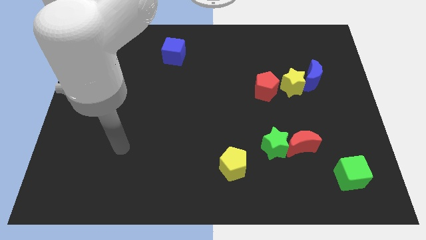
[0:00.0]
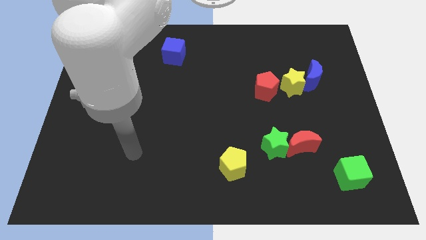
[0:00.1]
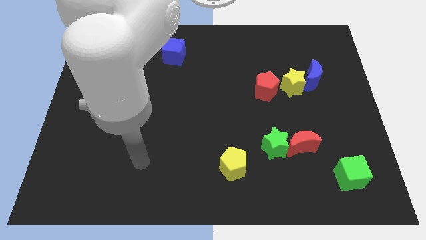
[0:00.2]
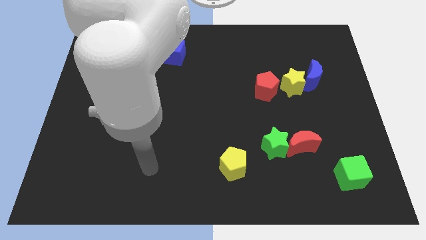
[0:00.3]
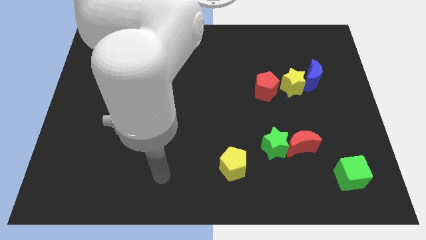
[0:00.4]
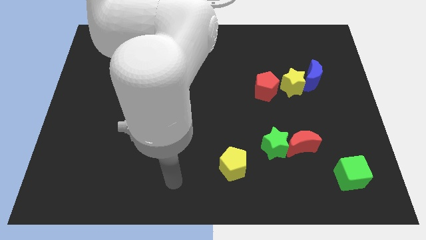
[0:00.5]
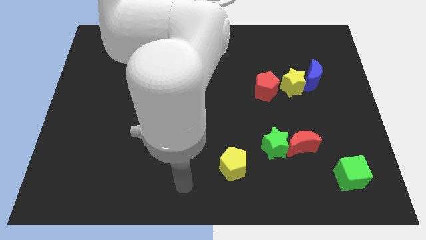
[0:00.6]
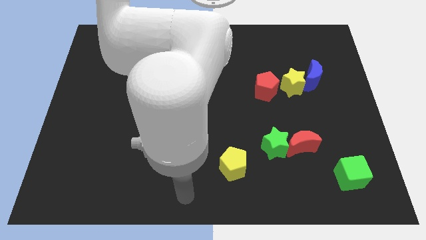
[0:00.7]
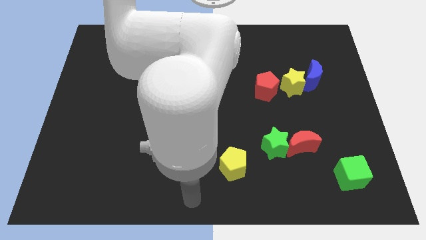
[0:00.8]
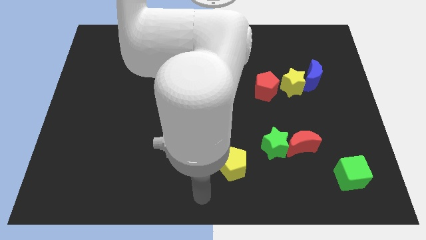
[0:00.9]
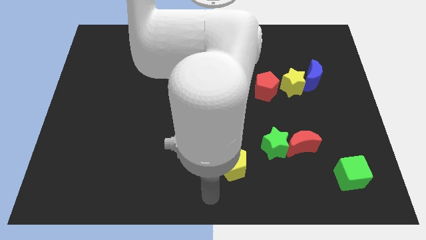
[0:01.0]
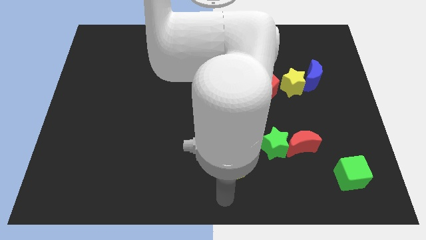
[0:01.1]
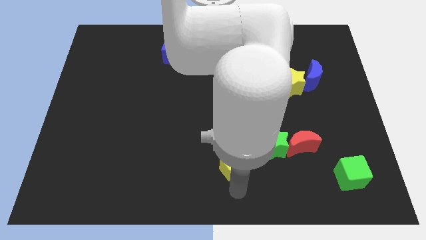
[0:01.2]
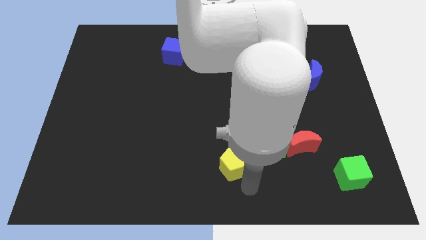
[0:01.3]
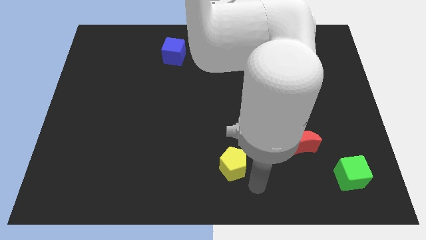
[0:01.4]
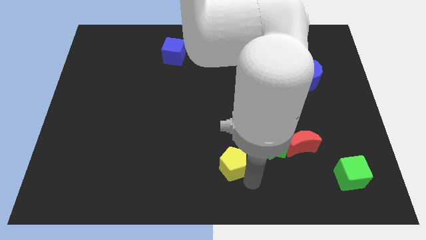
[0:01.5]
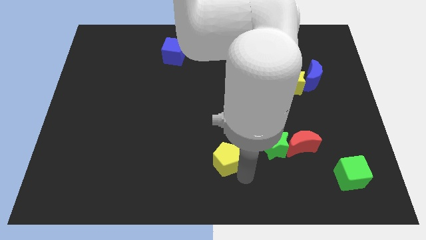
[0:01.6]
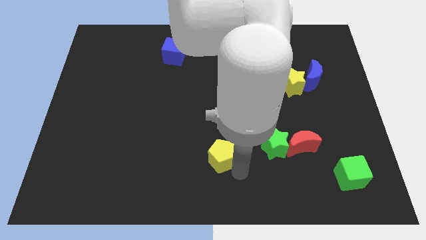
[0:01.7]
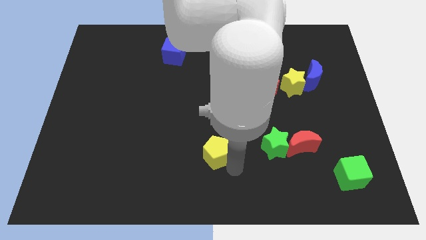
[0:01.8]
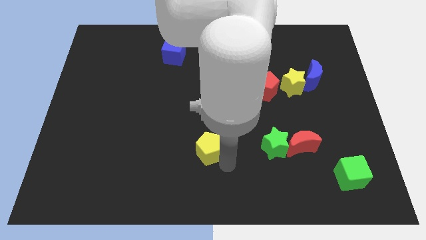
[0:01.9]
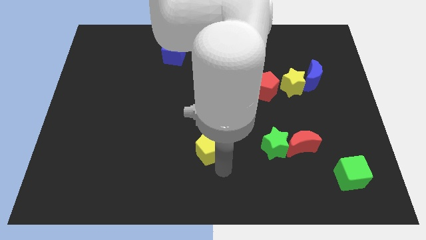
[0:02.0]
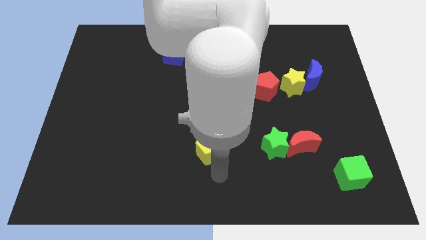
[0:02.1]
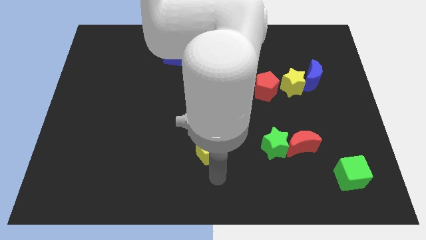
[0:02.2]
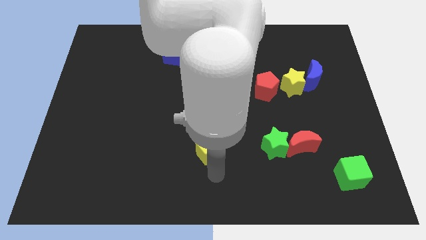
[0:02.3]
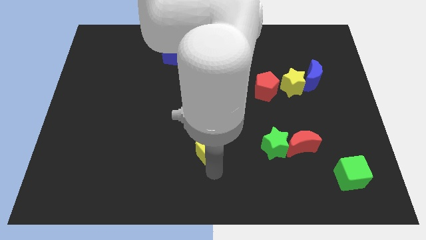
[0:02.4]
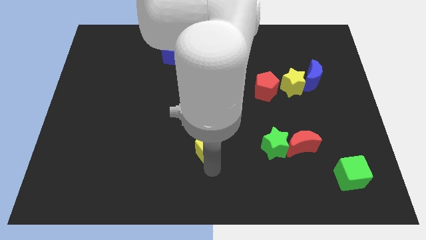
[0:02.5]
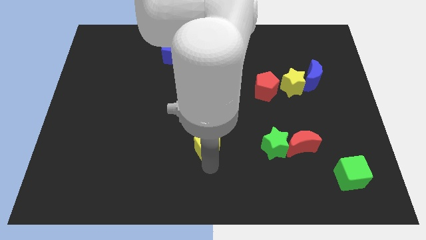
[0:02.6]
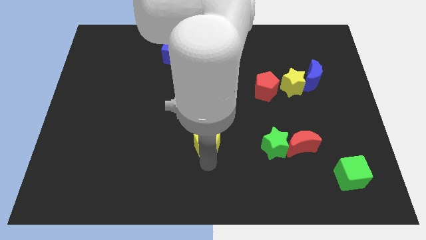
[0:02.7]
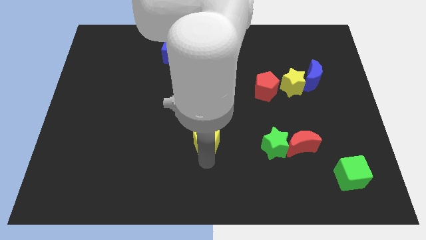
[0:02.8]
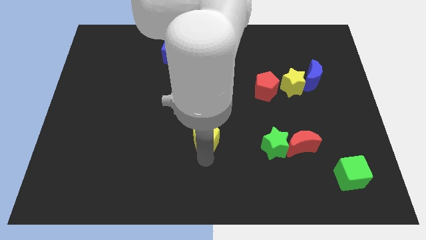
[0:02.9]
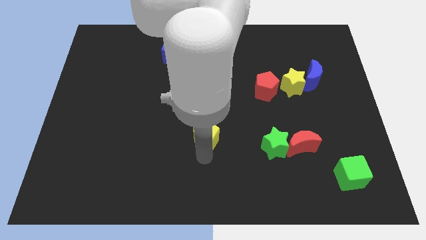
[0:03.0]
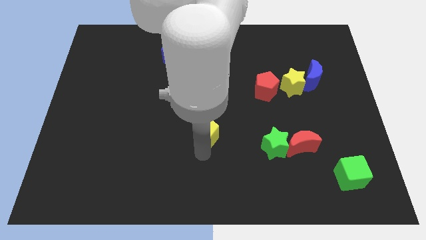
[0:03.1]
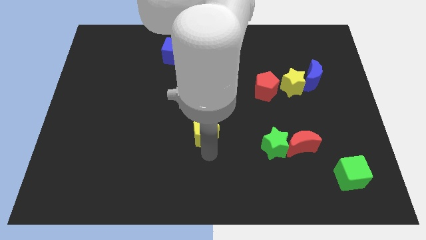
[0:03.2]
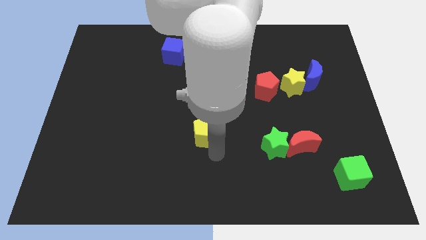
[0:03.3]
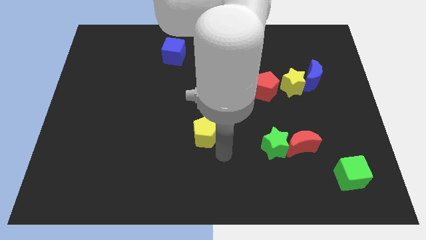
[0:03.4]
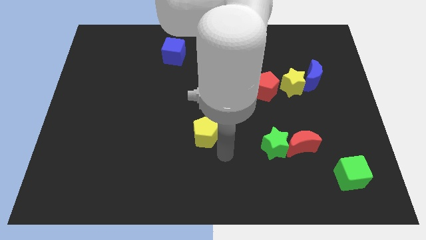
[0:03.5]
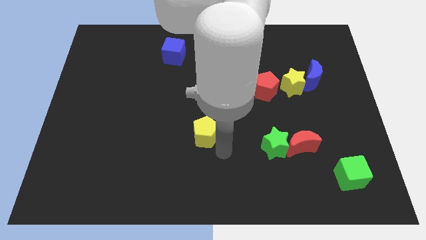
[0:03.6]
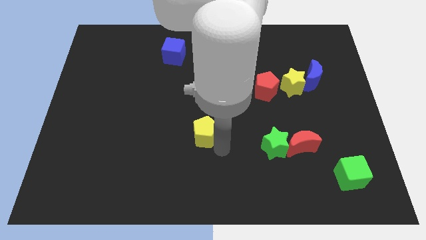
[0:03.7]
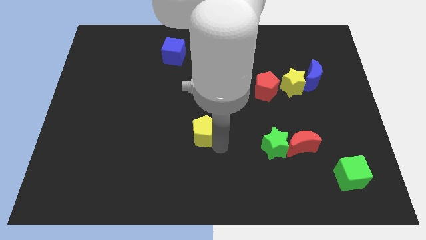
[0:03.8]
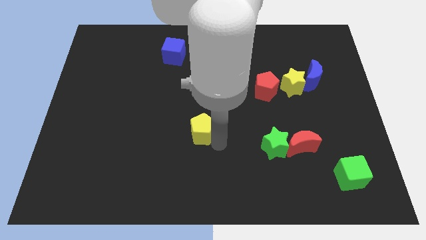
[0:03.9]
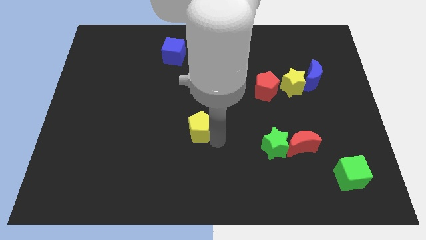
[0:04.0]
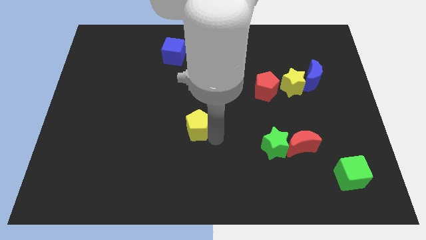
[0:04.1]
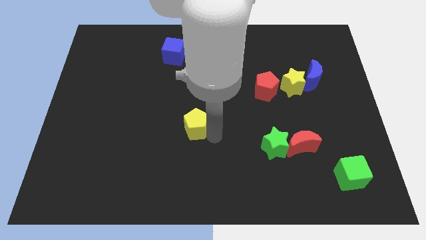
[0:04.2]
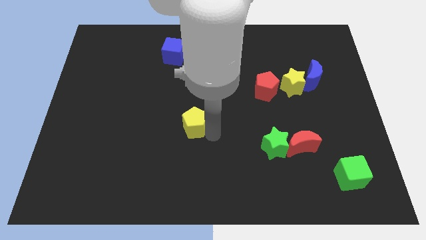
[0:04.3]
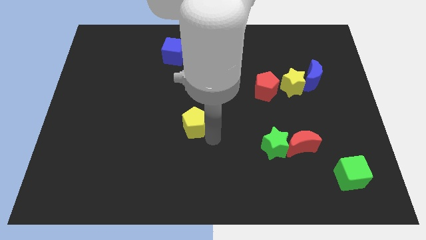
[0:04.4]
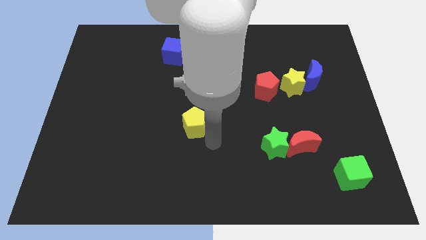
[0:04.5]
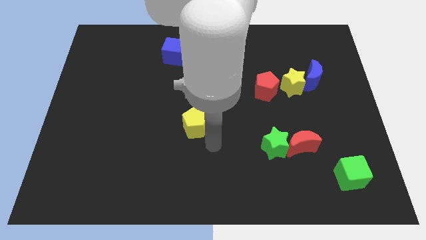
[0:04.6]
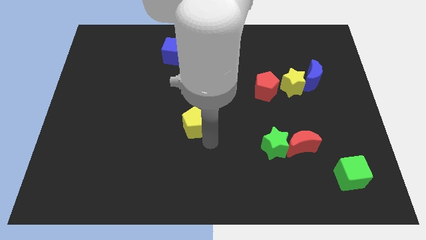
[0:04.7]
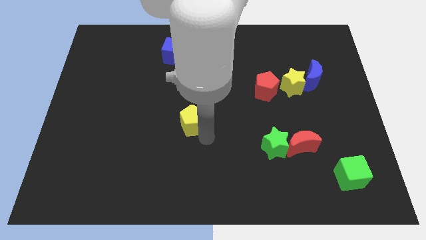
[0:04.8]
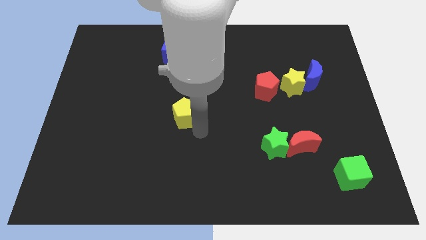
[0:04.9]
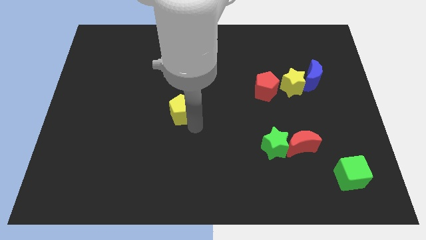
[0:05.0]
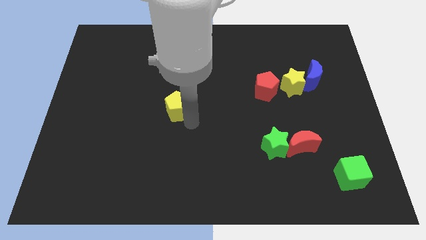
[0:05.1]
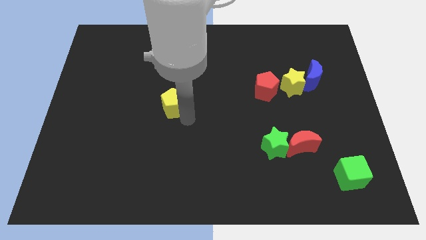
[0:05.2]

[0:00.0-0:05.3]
slide the yellow pentagon up and to the left diagonally

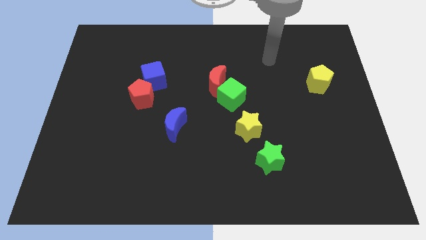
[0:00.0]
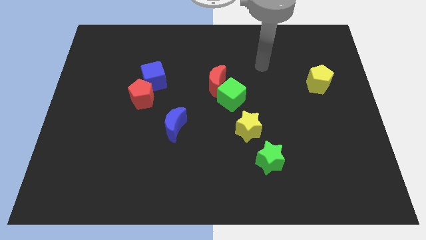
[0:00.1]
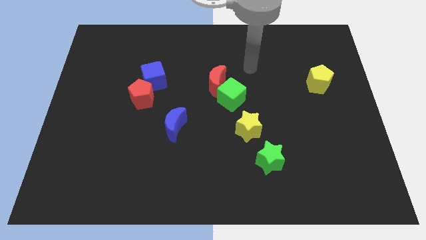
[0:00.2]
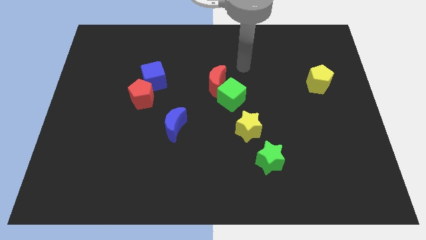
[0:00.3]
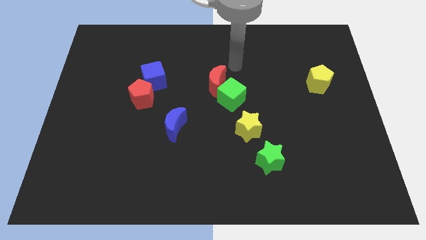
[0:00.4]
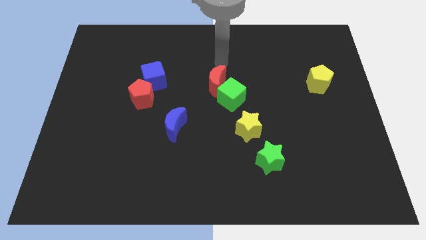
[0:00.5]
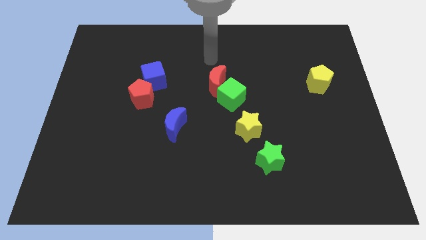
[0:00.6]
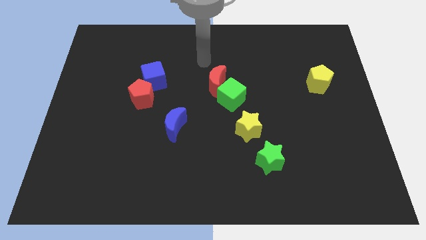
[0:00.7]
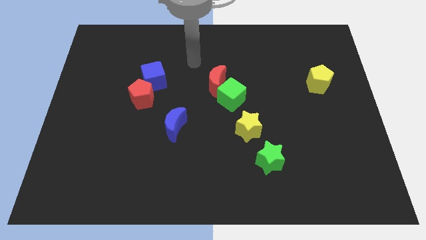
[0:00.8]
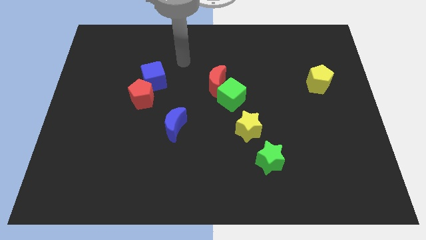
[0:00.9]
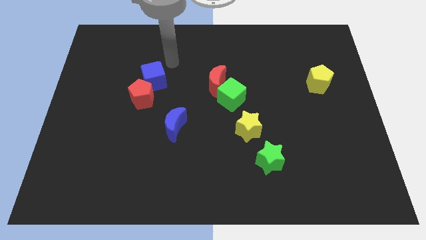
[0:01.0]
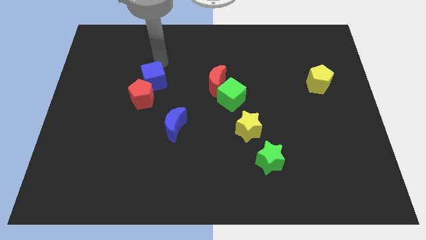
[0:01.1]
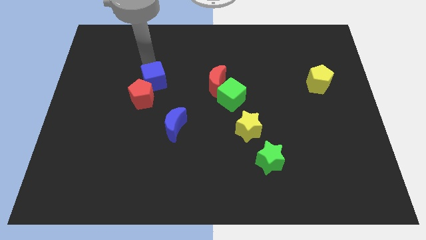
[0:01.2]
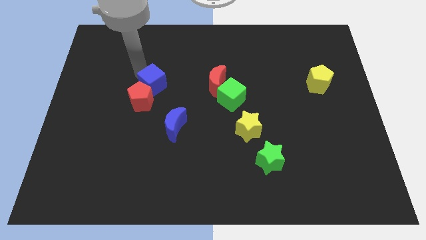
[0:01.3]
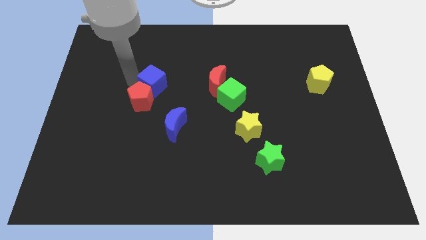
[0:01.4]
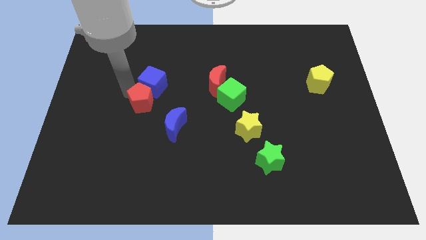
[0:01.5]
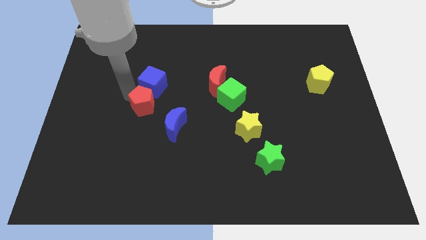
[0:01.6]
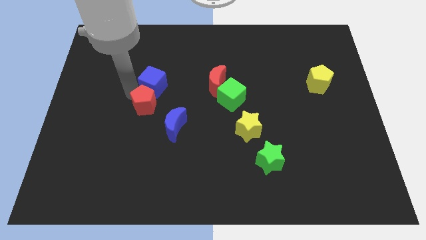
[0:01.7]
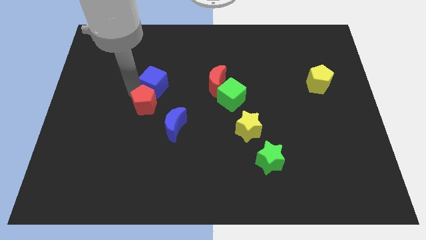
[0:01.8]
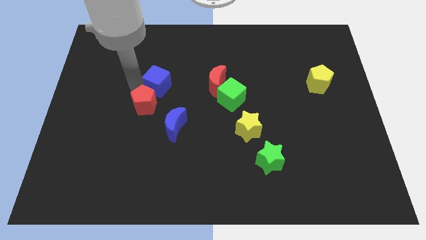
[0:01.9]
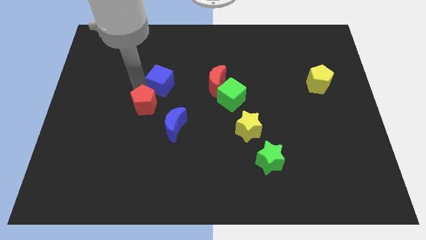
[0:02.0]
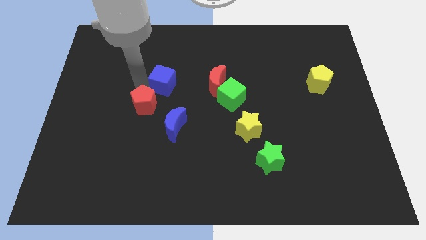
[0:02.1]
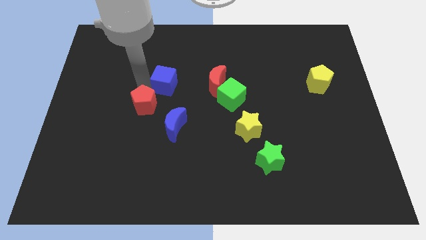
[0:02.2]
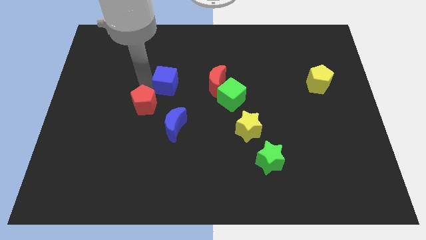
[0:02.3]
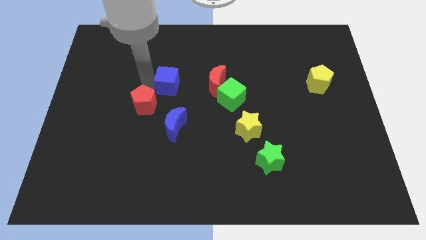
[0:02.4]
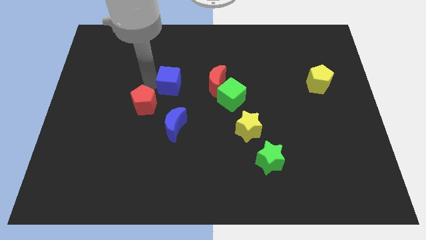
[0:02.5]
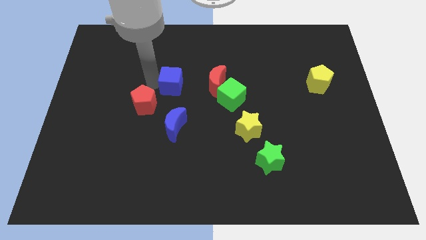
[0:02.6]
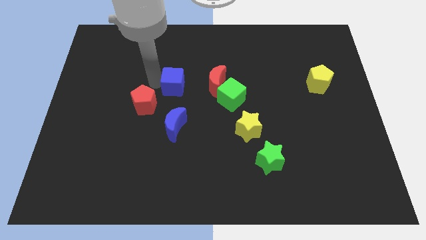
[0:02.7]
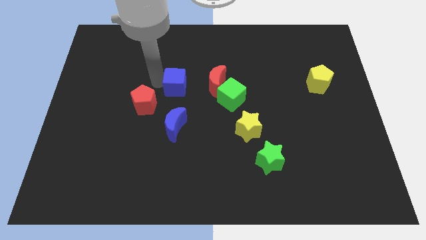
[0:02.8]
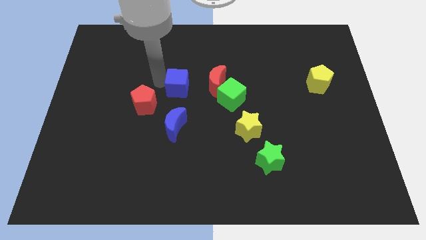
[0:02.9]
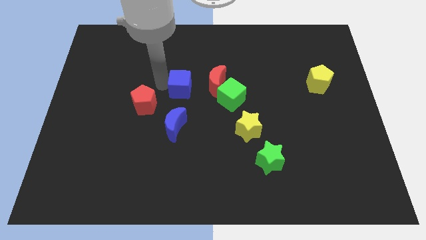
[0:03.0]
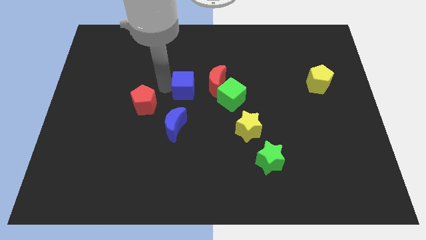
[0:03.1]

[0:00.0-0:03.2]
push the blue cube right a bit
